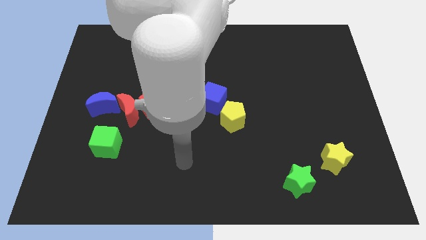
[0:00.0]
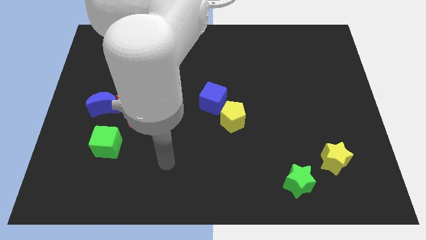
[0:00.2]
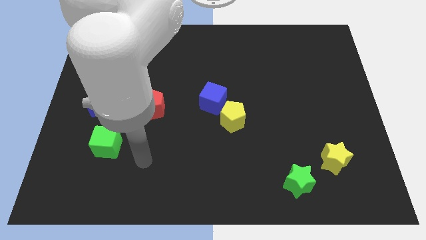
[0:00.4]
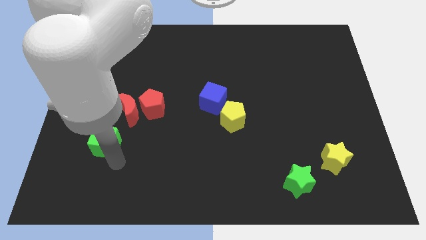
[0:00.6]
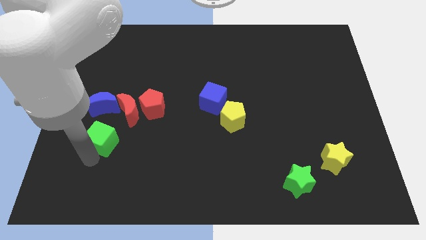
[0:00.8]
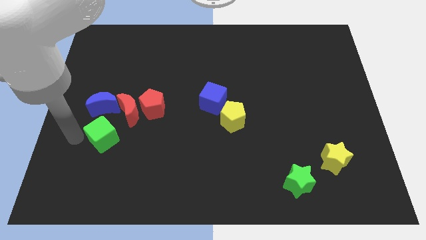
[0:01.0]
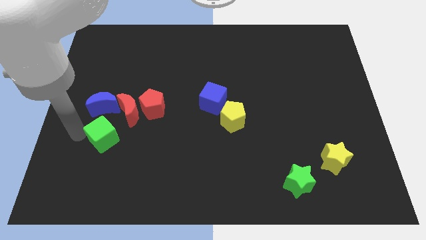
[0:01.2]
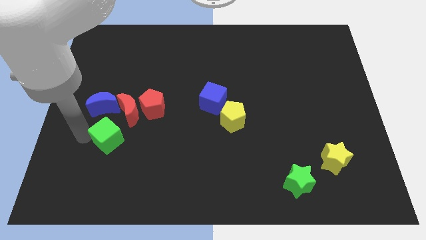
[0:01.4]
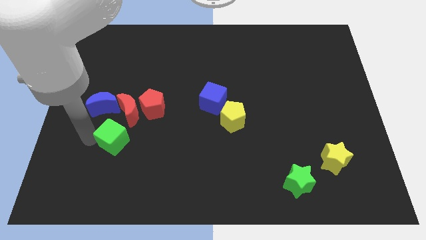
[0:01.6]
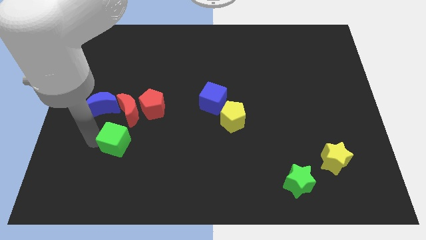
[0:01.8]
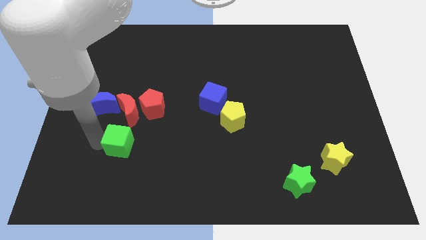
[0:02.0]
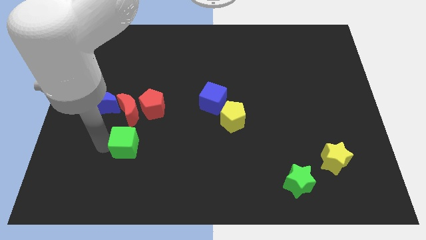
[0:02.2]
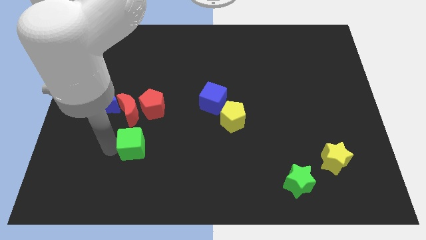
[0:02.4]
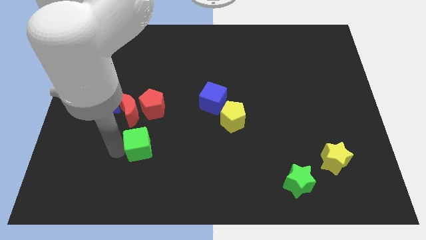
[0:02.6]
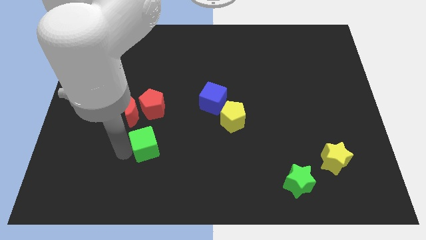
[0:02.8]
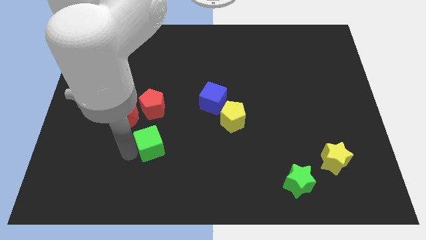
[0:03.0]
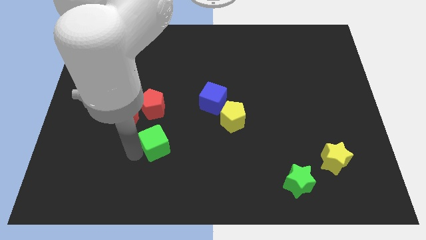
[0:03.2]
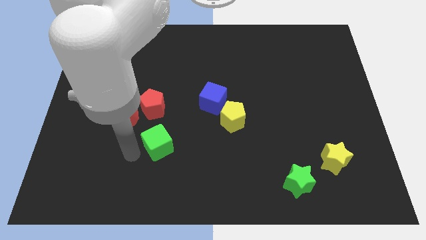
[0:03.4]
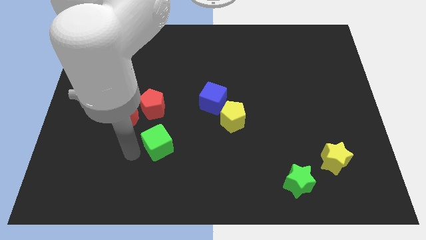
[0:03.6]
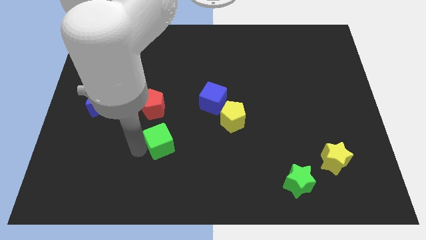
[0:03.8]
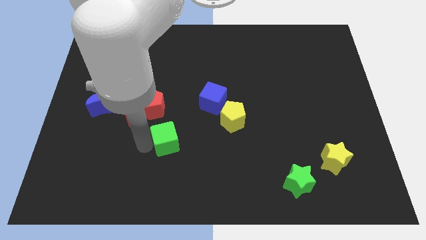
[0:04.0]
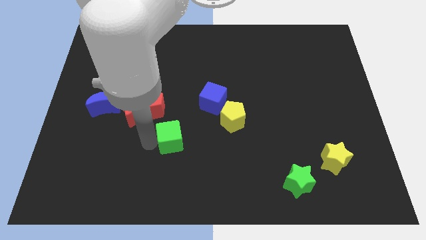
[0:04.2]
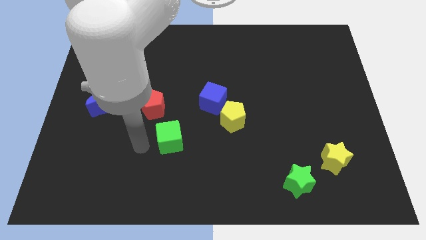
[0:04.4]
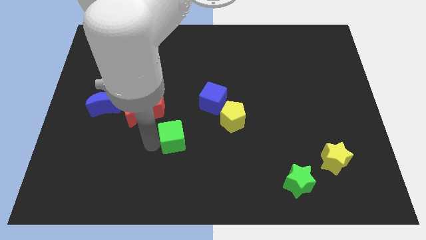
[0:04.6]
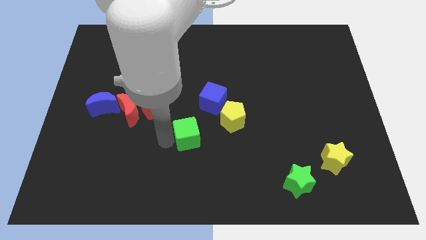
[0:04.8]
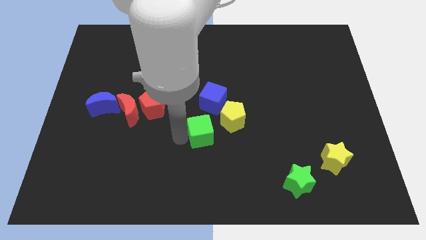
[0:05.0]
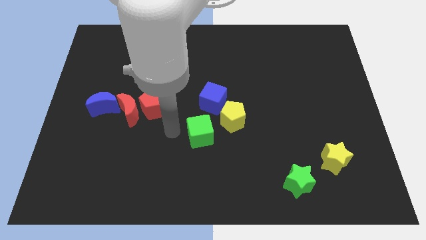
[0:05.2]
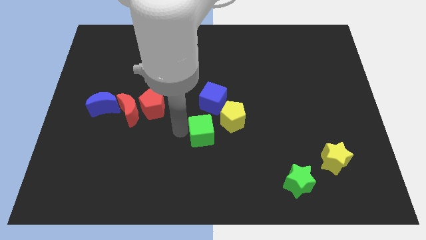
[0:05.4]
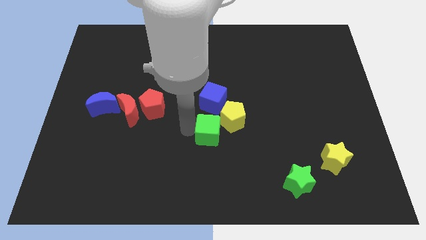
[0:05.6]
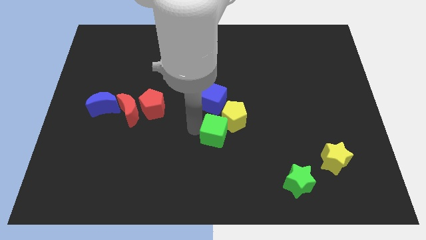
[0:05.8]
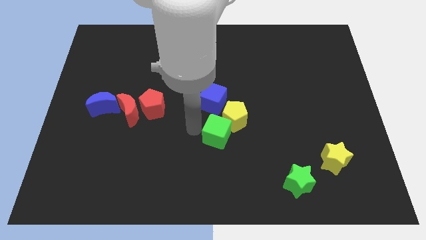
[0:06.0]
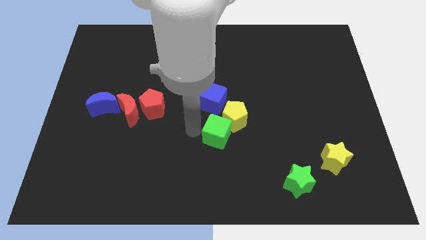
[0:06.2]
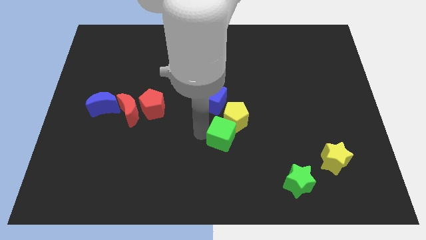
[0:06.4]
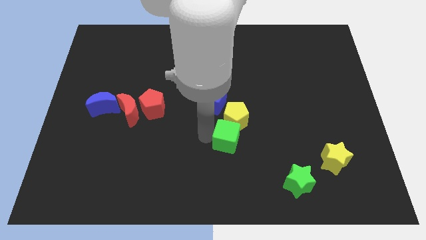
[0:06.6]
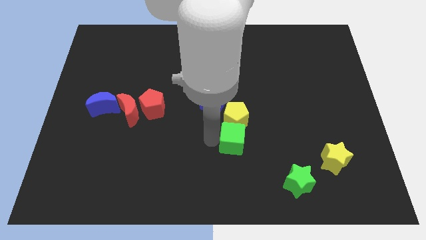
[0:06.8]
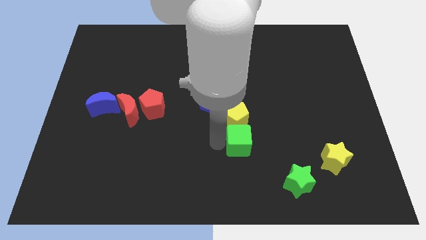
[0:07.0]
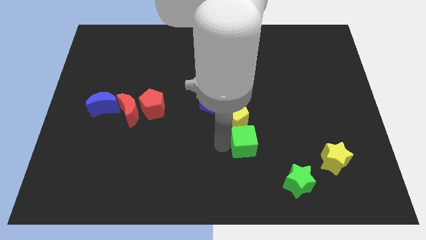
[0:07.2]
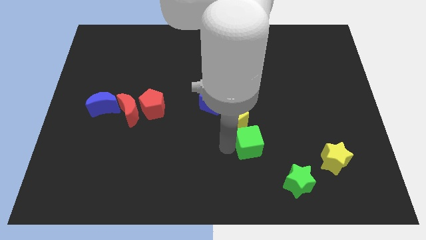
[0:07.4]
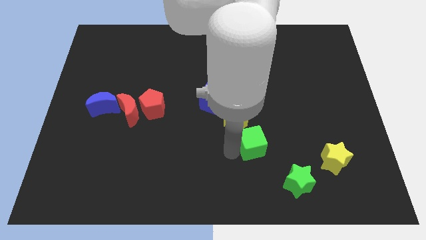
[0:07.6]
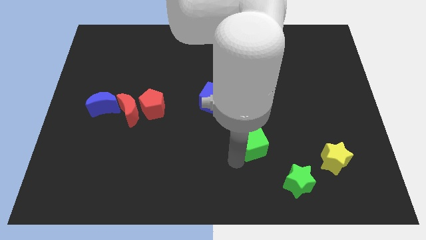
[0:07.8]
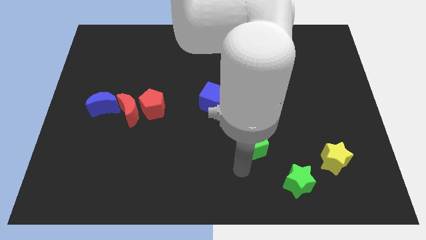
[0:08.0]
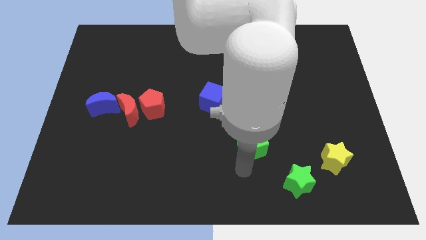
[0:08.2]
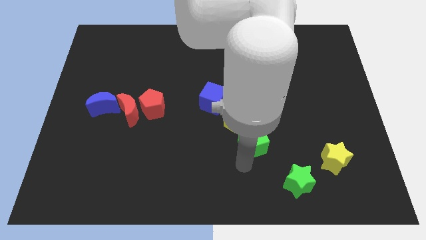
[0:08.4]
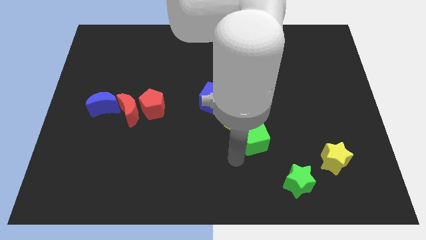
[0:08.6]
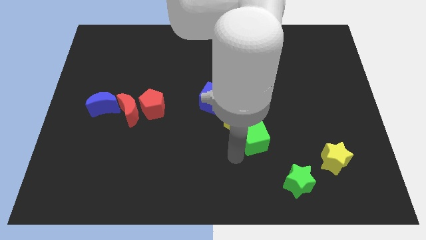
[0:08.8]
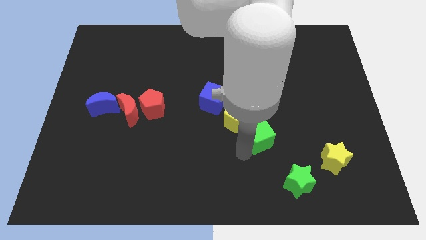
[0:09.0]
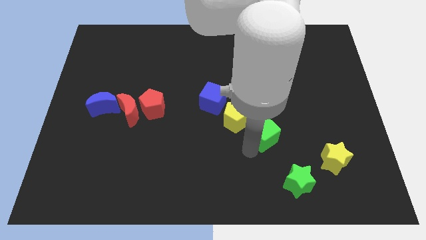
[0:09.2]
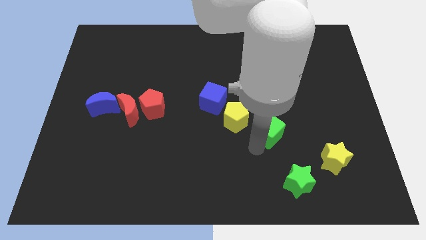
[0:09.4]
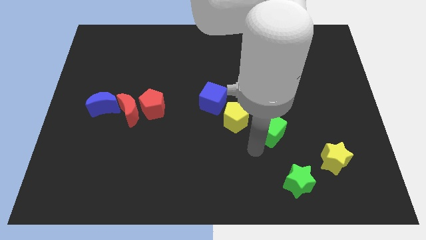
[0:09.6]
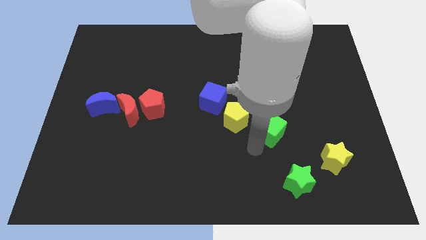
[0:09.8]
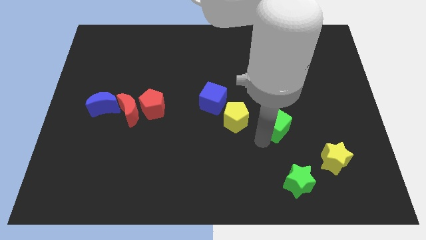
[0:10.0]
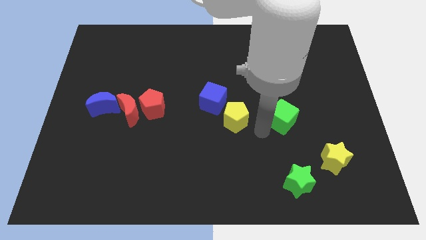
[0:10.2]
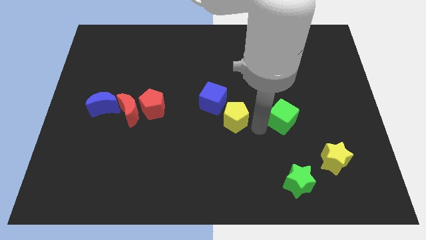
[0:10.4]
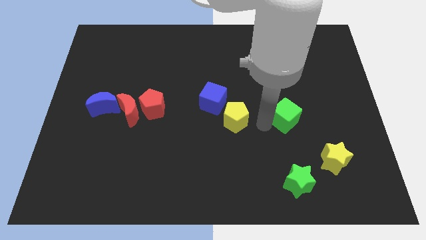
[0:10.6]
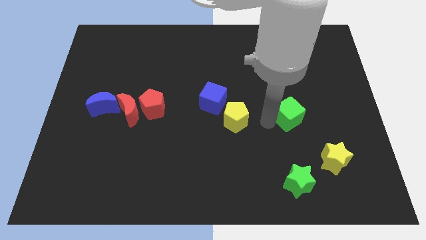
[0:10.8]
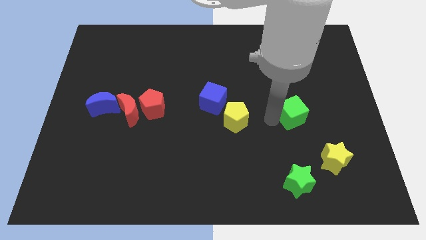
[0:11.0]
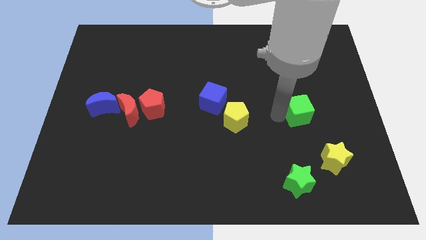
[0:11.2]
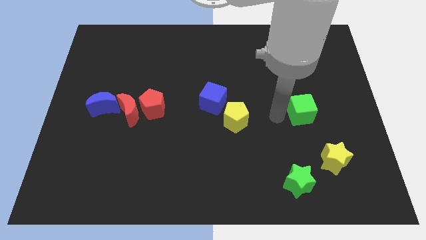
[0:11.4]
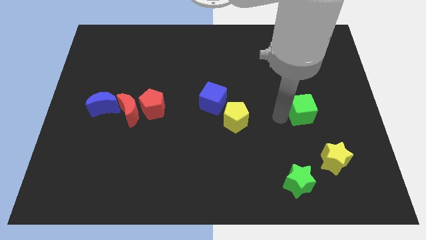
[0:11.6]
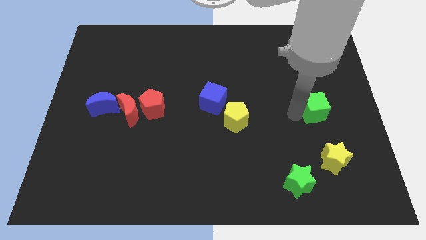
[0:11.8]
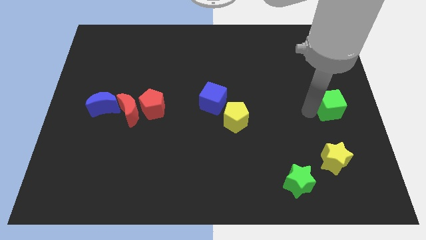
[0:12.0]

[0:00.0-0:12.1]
slide the green cube to the right side
